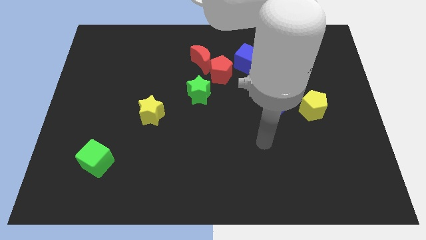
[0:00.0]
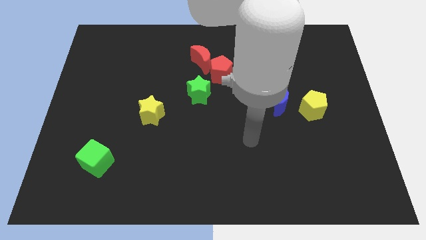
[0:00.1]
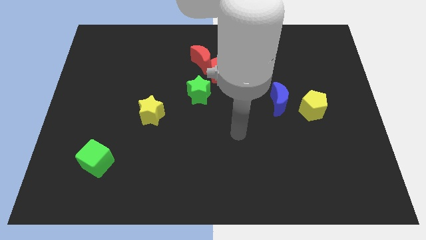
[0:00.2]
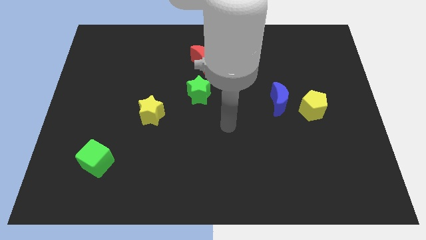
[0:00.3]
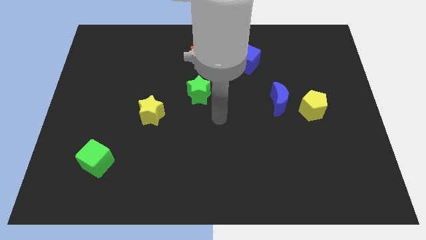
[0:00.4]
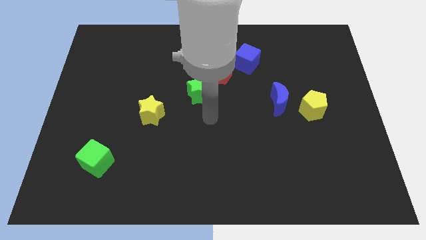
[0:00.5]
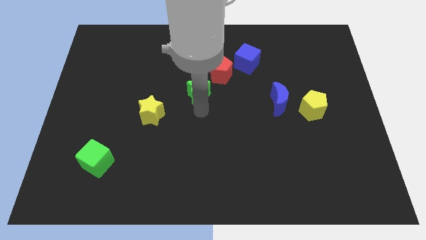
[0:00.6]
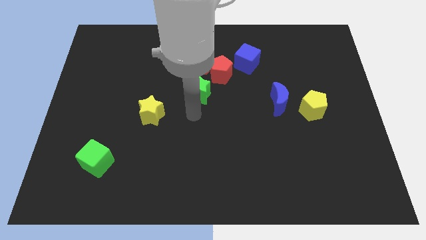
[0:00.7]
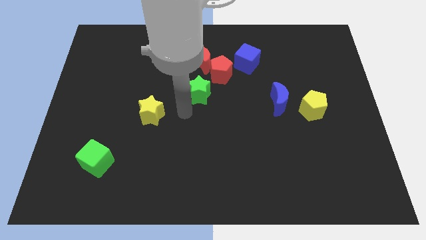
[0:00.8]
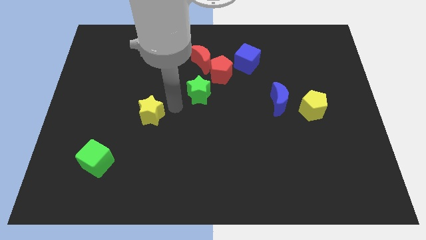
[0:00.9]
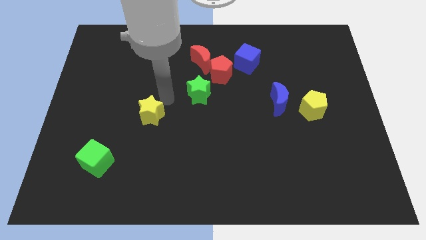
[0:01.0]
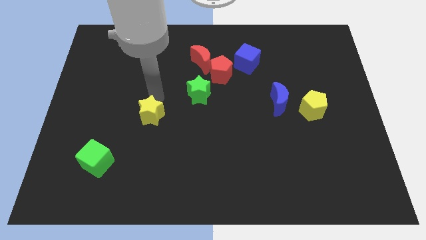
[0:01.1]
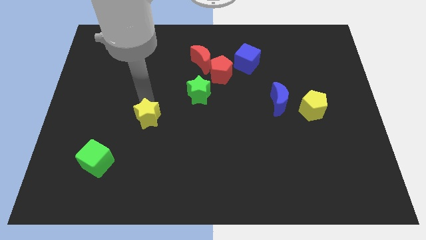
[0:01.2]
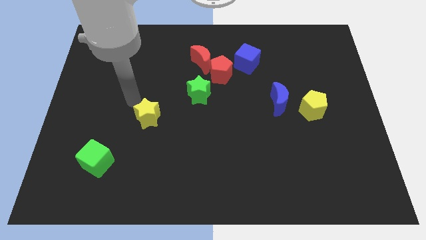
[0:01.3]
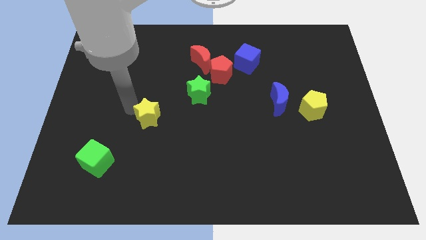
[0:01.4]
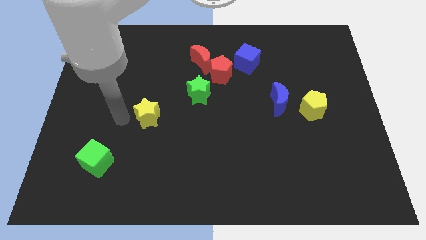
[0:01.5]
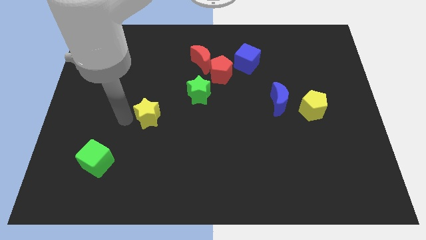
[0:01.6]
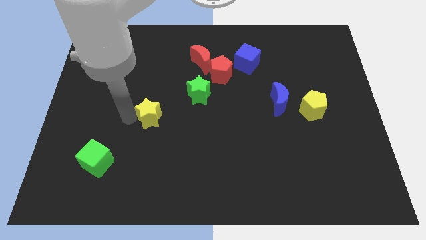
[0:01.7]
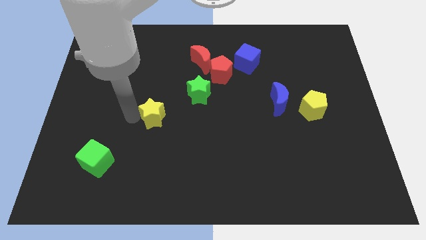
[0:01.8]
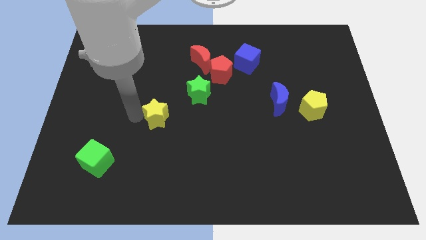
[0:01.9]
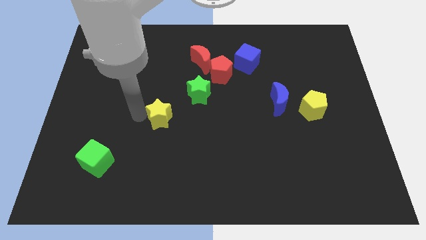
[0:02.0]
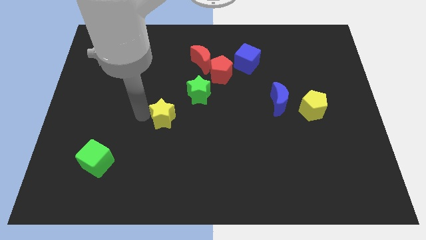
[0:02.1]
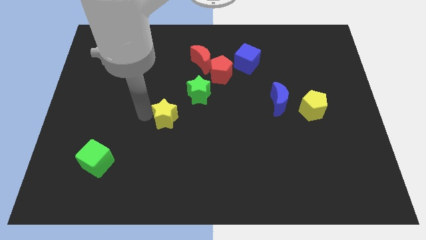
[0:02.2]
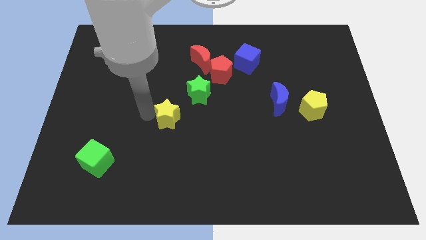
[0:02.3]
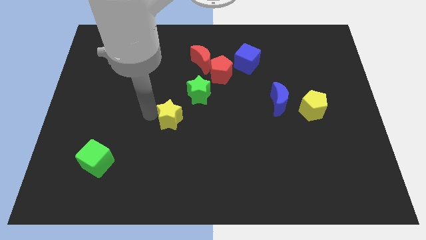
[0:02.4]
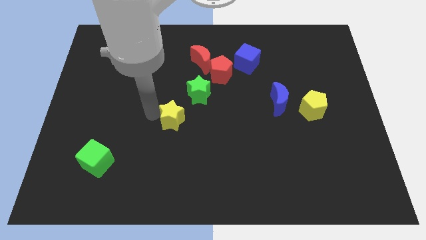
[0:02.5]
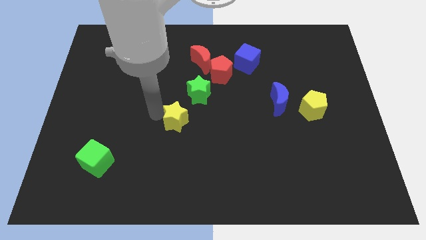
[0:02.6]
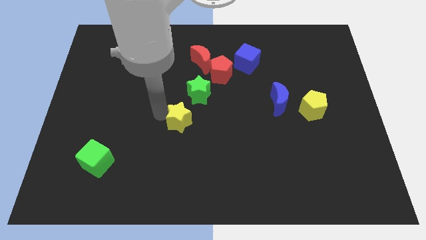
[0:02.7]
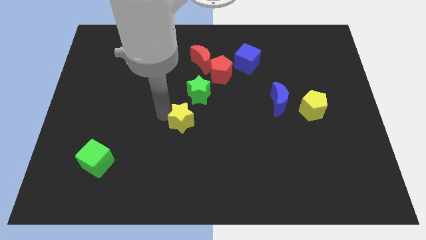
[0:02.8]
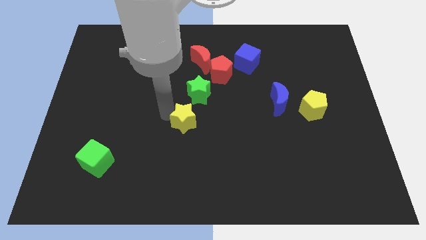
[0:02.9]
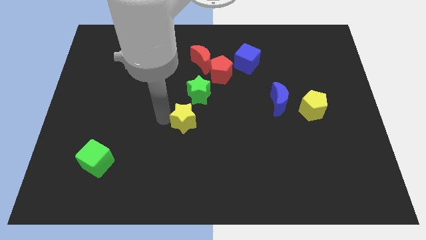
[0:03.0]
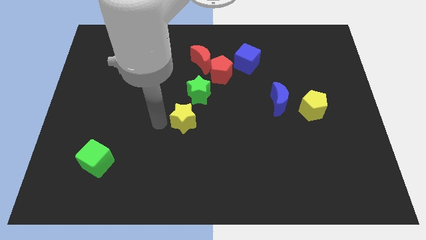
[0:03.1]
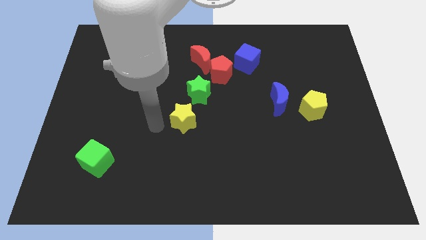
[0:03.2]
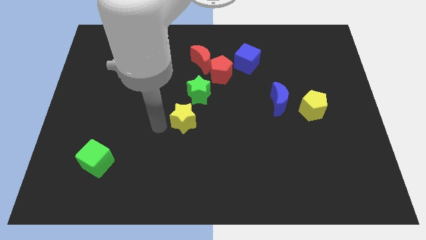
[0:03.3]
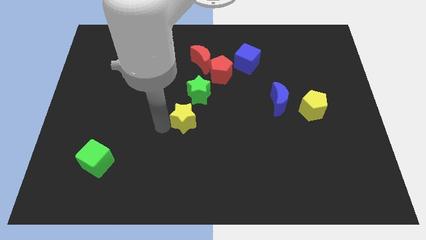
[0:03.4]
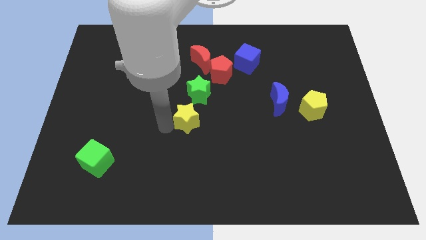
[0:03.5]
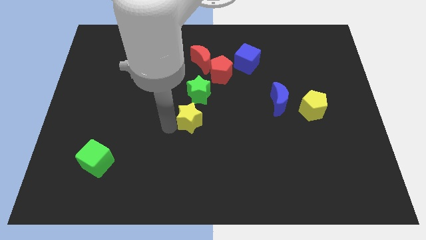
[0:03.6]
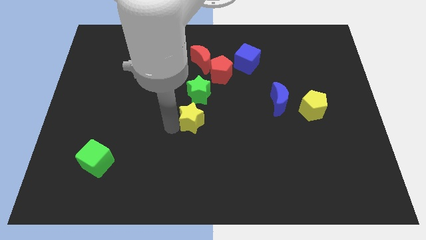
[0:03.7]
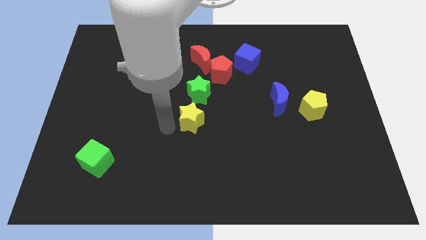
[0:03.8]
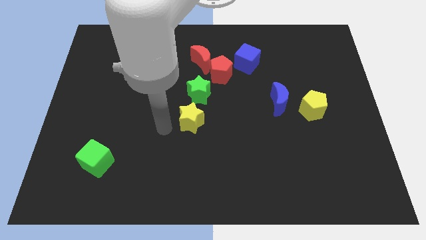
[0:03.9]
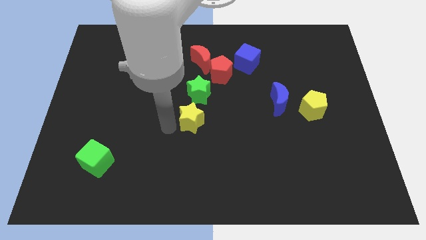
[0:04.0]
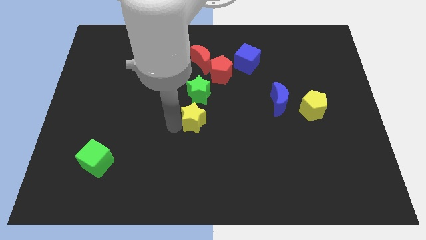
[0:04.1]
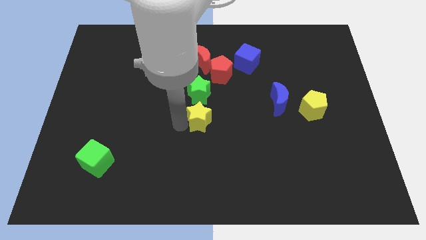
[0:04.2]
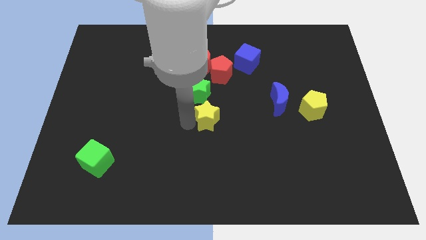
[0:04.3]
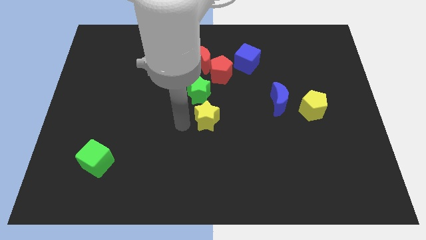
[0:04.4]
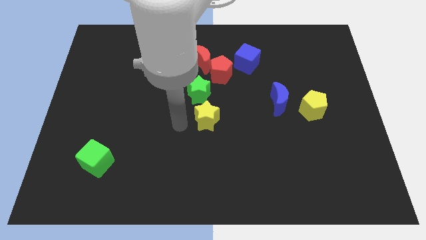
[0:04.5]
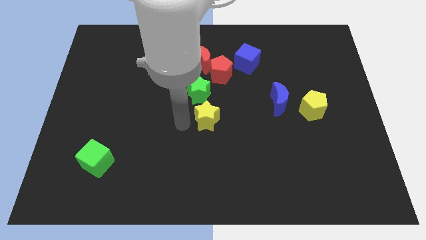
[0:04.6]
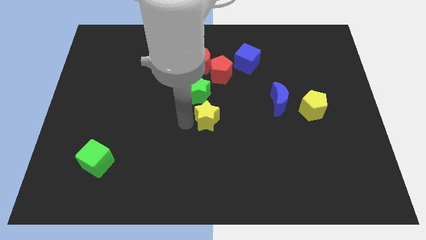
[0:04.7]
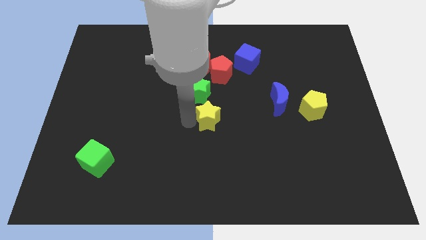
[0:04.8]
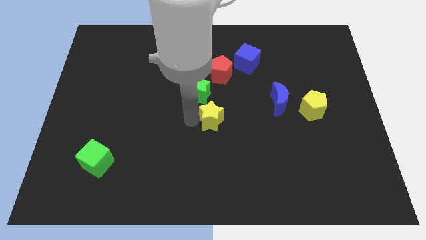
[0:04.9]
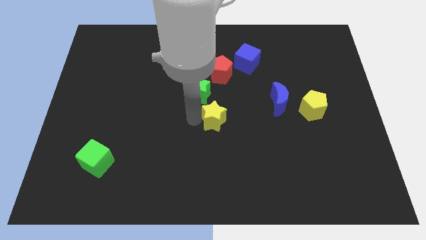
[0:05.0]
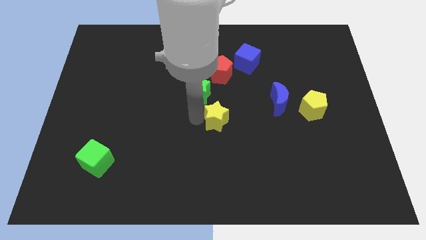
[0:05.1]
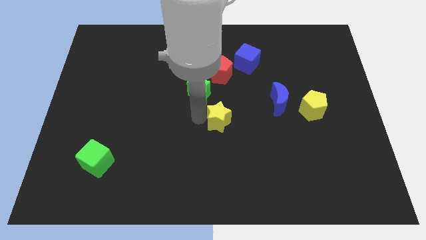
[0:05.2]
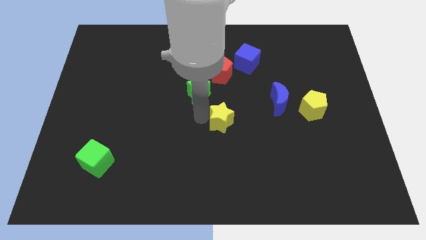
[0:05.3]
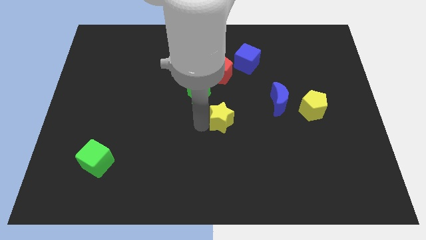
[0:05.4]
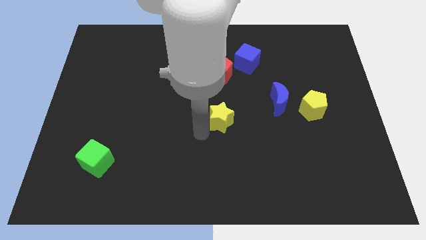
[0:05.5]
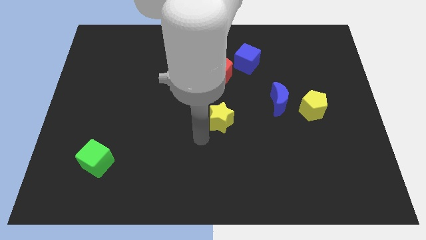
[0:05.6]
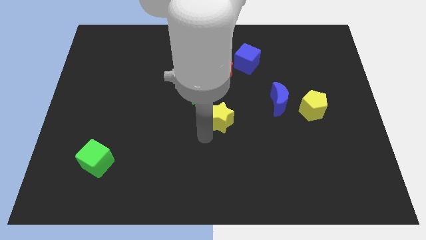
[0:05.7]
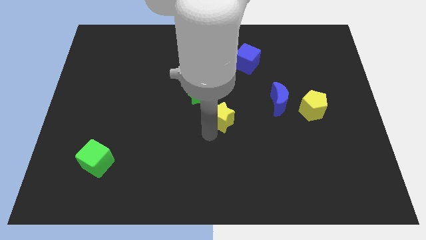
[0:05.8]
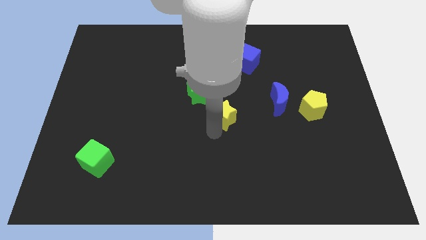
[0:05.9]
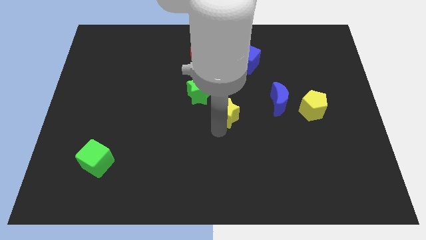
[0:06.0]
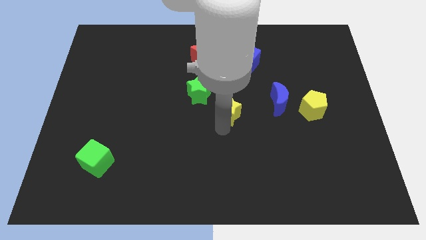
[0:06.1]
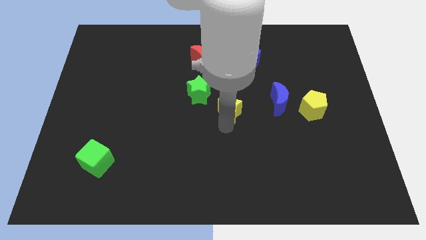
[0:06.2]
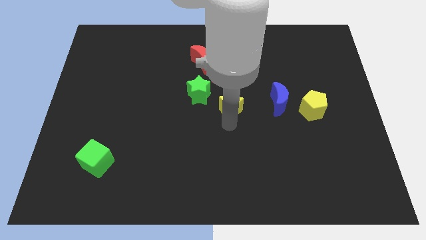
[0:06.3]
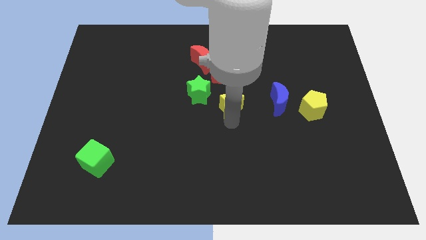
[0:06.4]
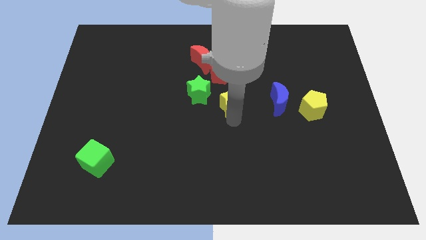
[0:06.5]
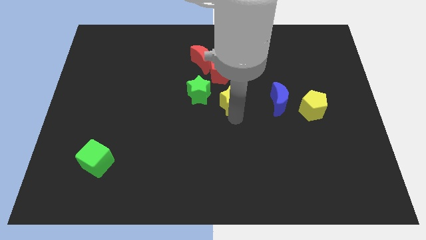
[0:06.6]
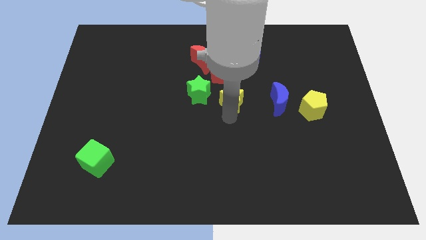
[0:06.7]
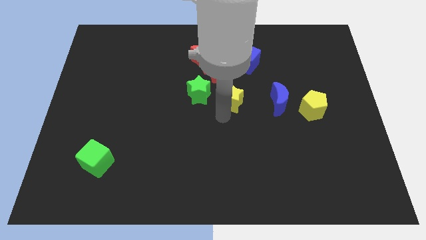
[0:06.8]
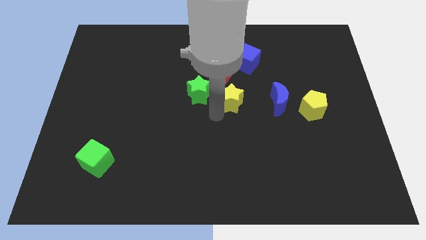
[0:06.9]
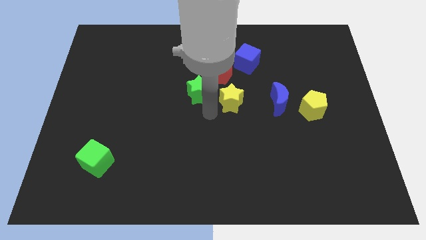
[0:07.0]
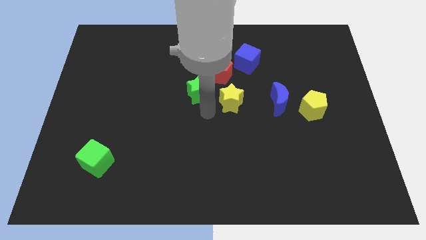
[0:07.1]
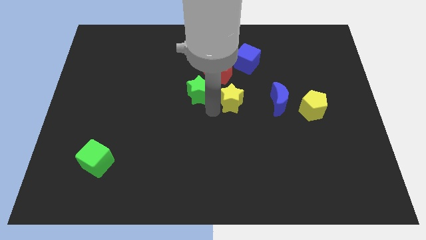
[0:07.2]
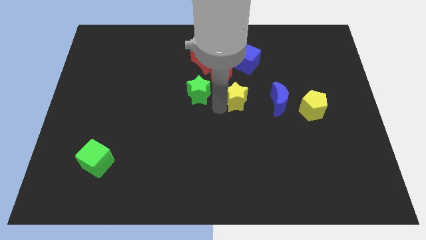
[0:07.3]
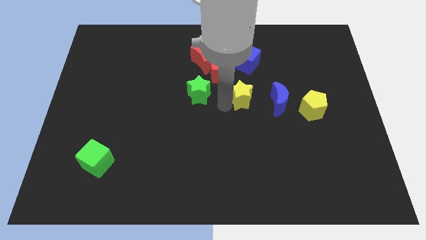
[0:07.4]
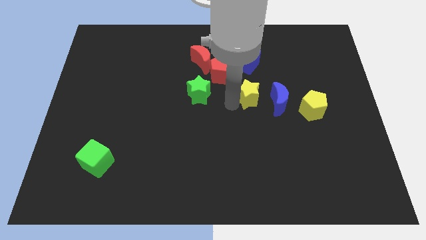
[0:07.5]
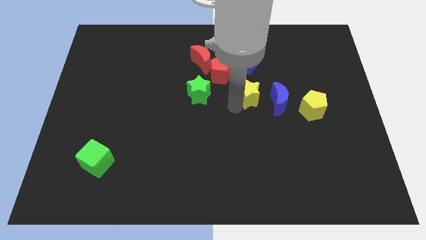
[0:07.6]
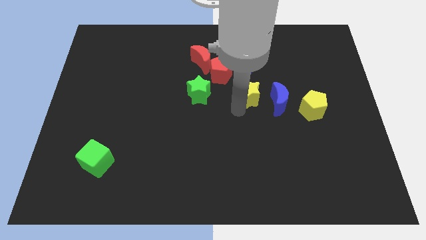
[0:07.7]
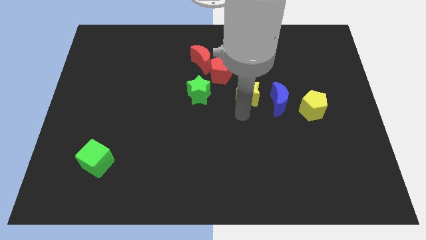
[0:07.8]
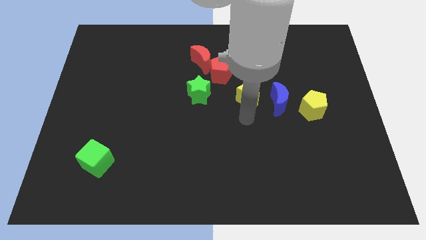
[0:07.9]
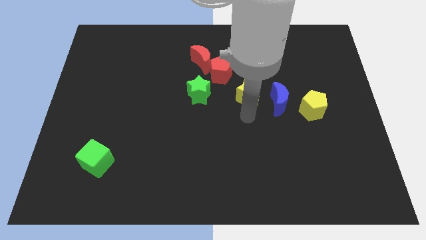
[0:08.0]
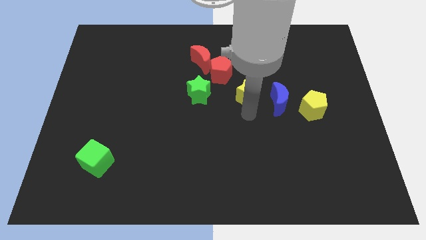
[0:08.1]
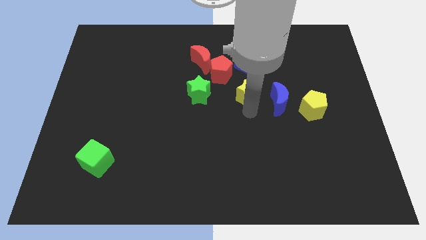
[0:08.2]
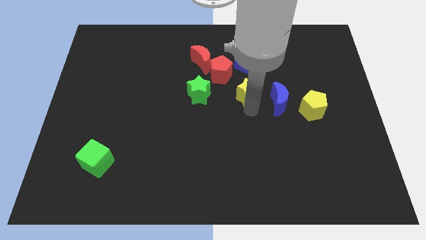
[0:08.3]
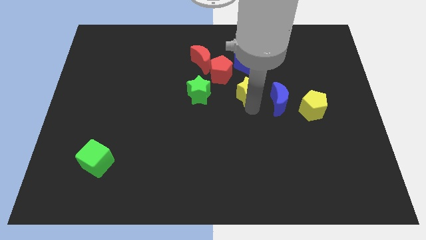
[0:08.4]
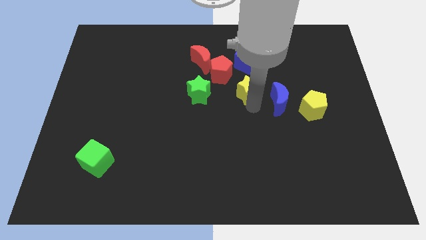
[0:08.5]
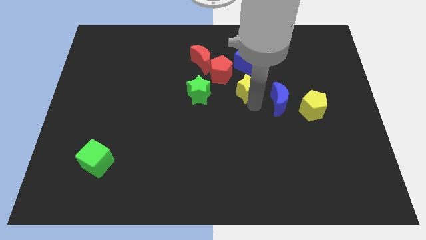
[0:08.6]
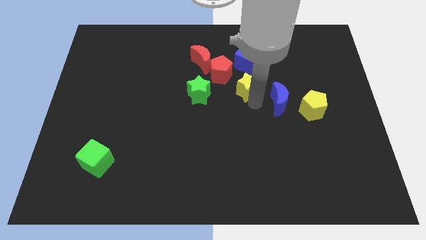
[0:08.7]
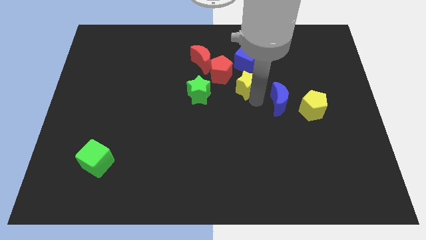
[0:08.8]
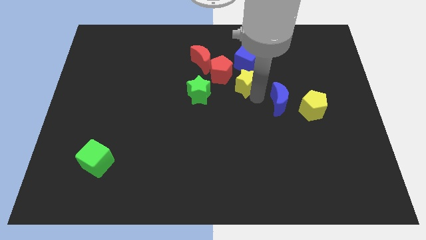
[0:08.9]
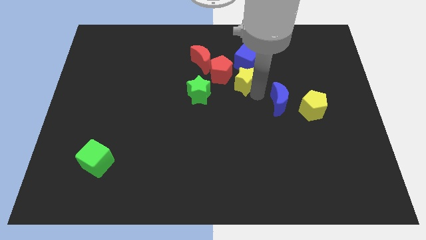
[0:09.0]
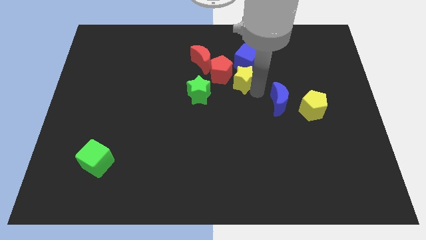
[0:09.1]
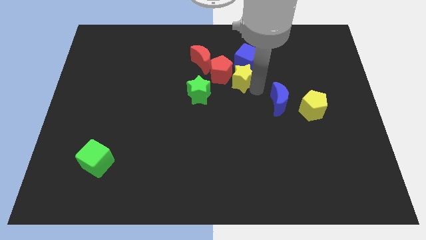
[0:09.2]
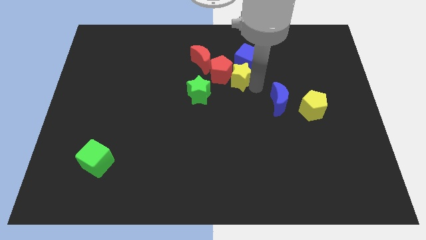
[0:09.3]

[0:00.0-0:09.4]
move the yellow star close to the blue cube
